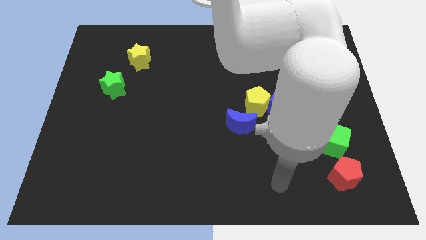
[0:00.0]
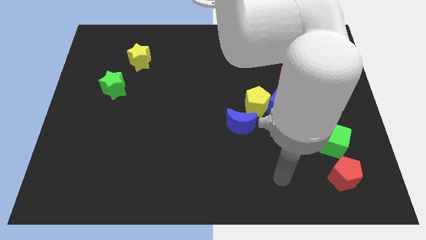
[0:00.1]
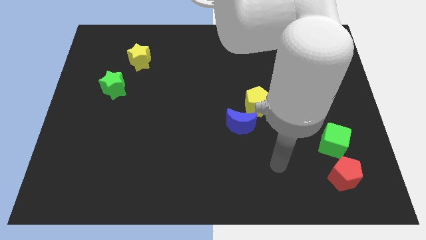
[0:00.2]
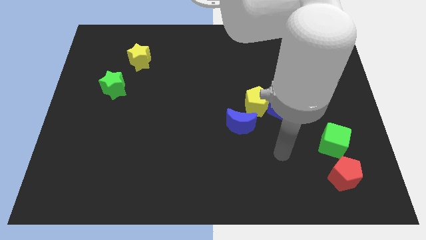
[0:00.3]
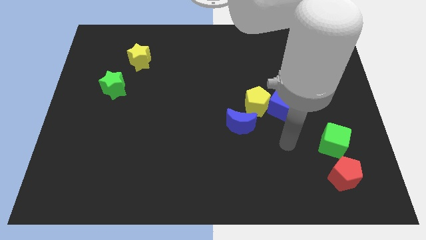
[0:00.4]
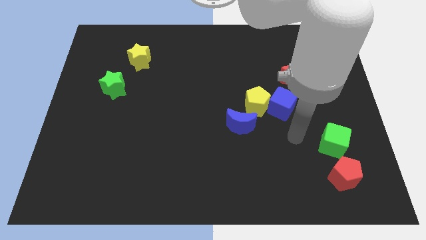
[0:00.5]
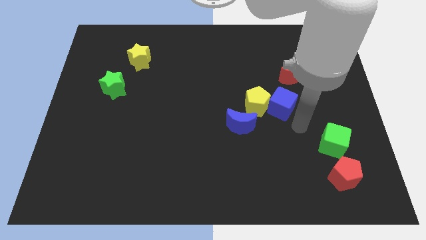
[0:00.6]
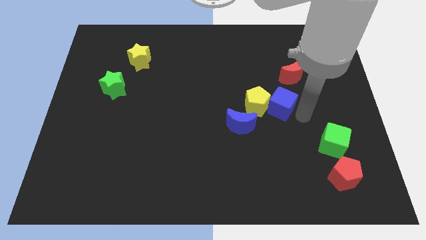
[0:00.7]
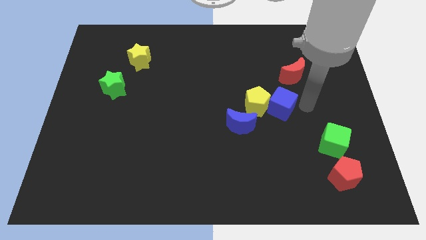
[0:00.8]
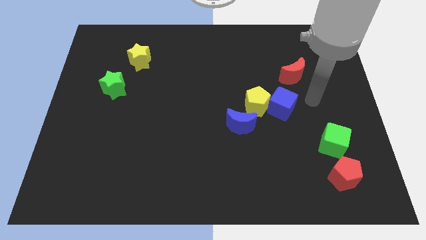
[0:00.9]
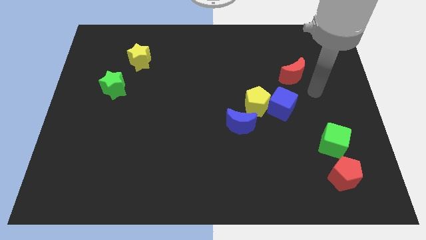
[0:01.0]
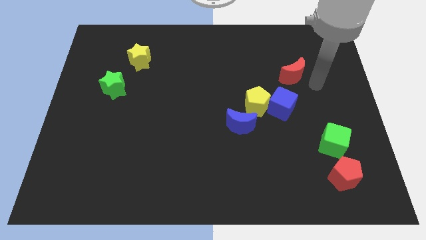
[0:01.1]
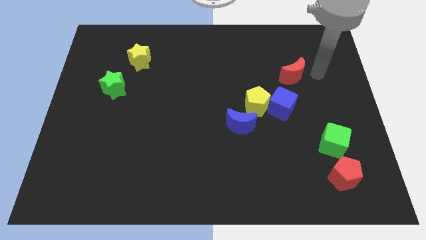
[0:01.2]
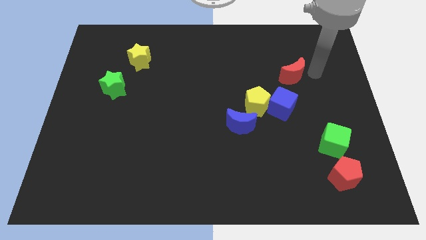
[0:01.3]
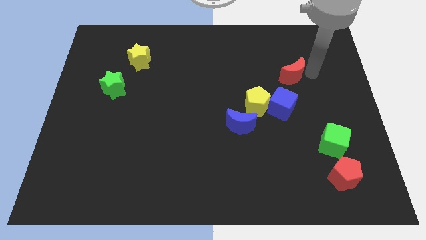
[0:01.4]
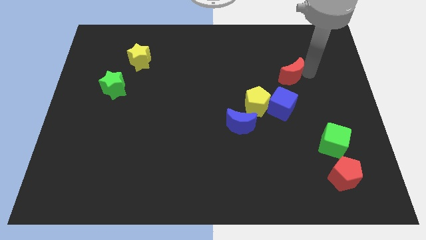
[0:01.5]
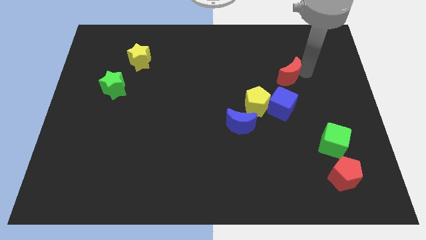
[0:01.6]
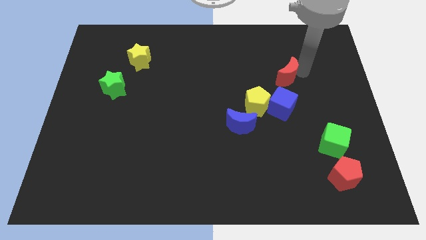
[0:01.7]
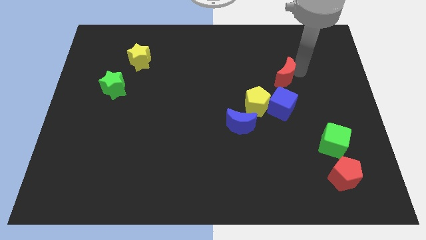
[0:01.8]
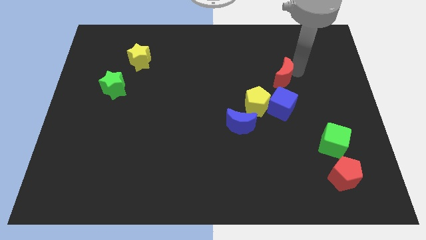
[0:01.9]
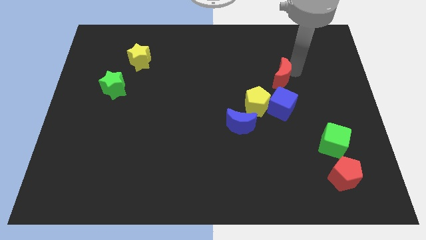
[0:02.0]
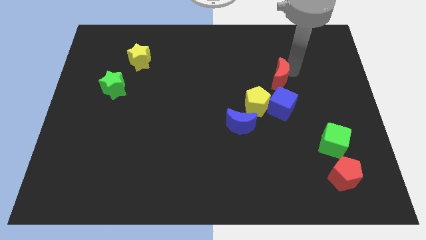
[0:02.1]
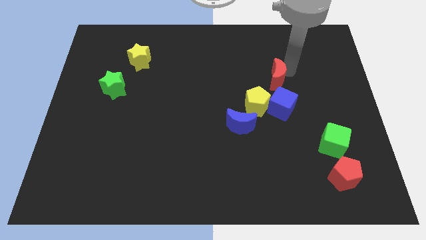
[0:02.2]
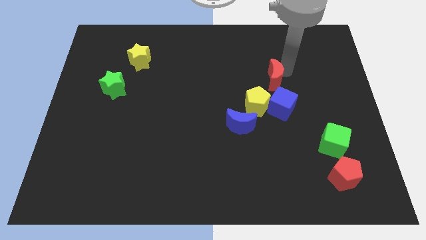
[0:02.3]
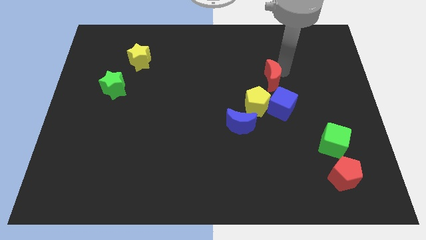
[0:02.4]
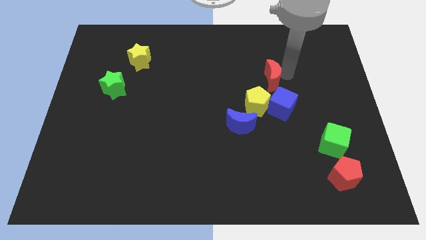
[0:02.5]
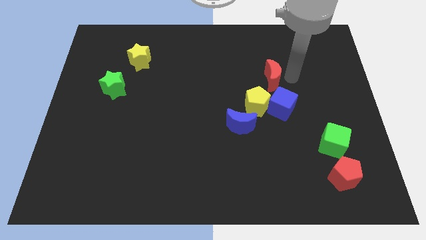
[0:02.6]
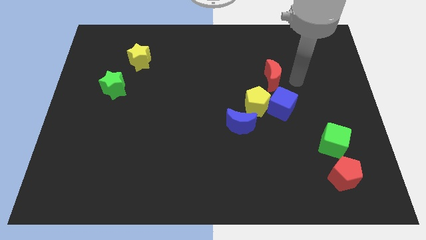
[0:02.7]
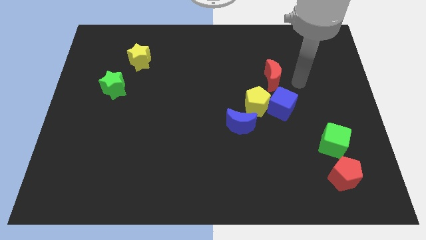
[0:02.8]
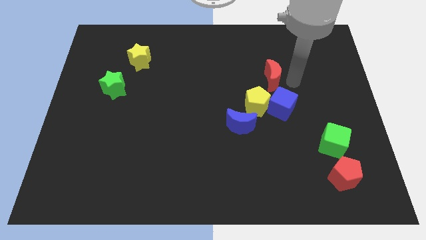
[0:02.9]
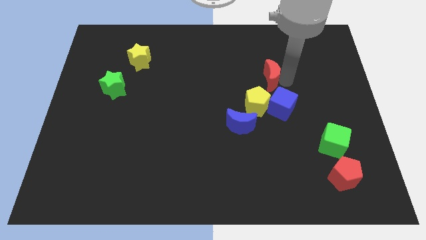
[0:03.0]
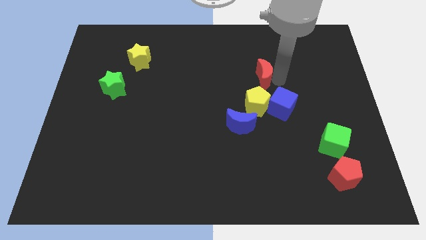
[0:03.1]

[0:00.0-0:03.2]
slightly slide the red moon to the left

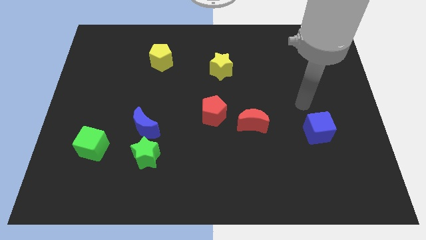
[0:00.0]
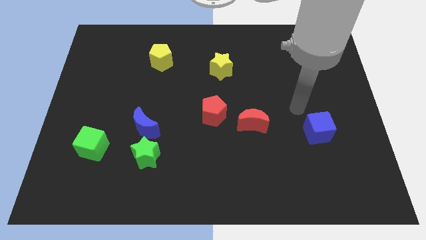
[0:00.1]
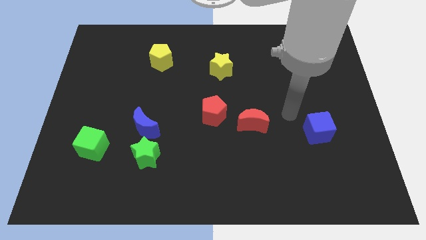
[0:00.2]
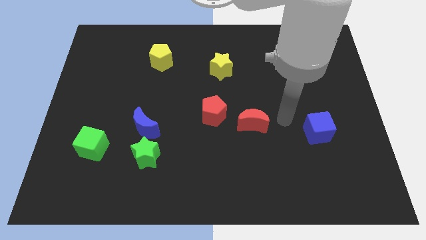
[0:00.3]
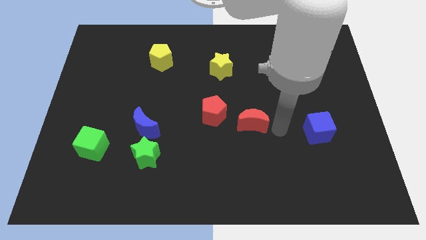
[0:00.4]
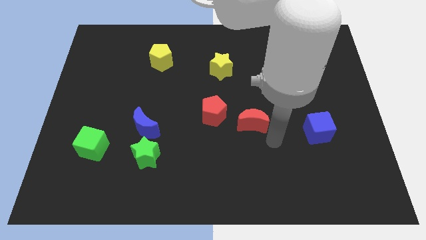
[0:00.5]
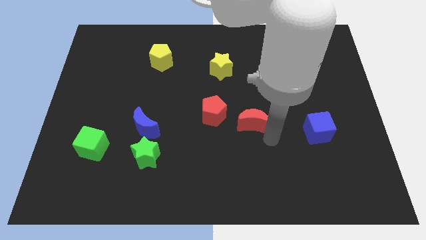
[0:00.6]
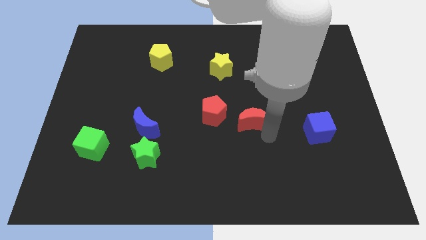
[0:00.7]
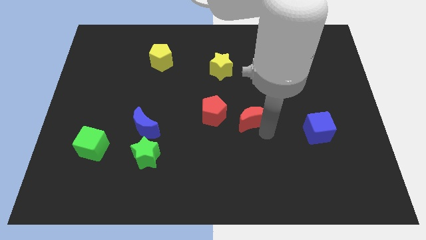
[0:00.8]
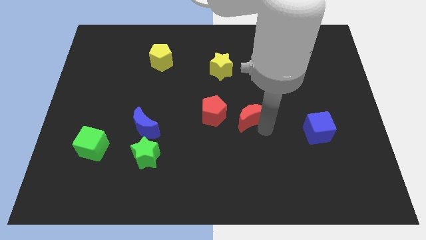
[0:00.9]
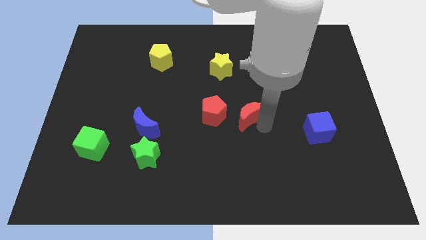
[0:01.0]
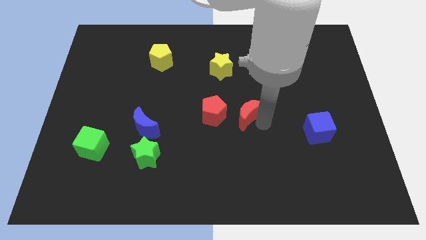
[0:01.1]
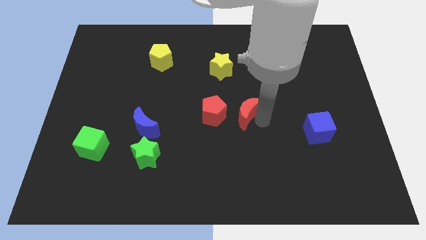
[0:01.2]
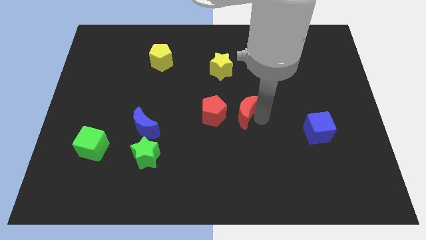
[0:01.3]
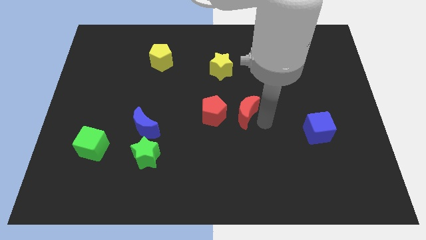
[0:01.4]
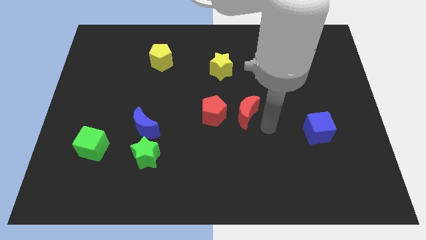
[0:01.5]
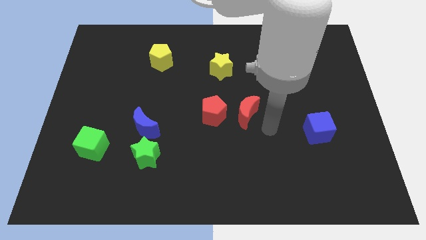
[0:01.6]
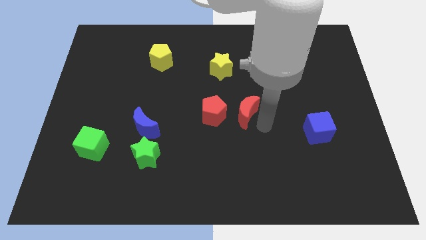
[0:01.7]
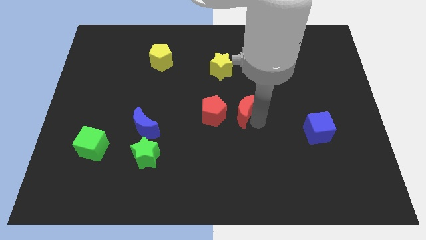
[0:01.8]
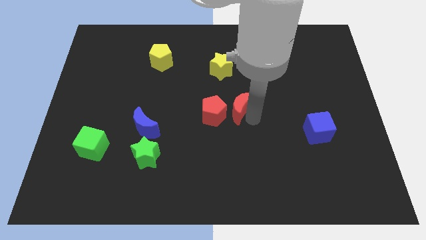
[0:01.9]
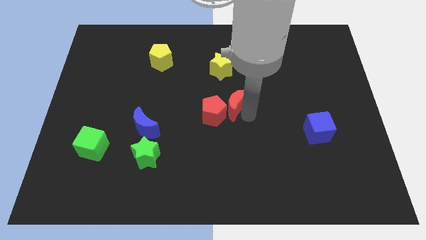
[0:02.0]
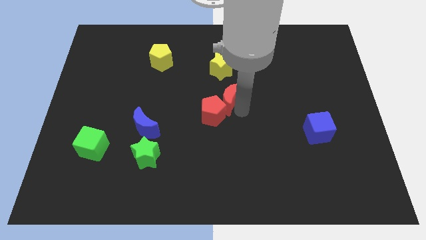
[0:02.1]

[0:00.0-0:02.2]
slide the red moon a bit up and left

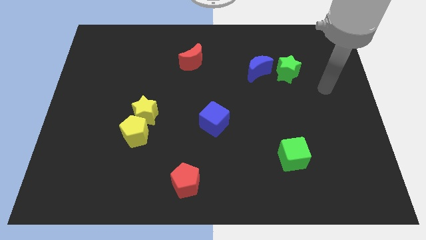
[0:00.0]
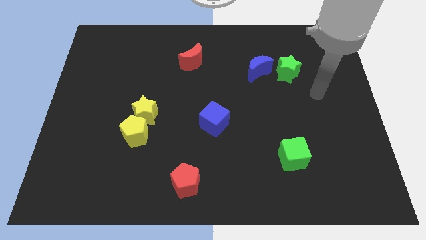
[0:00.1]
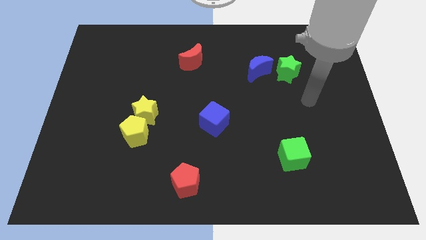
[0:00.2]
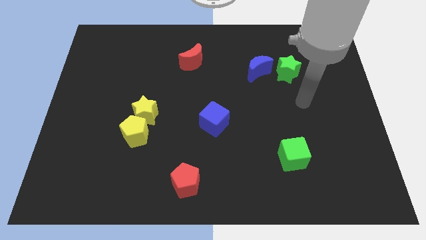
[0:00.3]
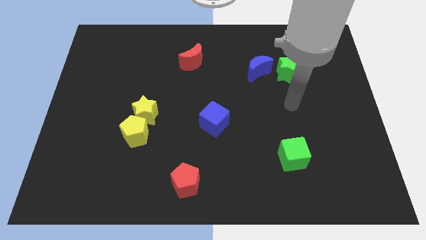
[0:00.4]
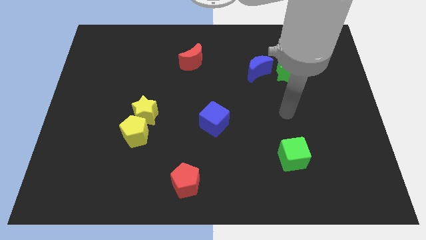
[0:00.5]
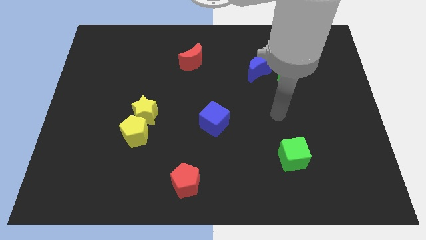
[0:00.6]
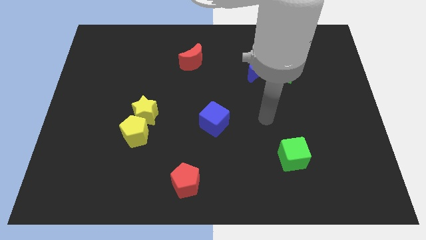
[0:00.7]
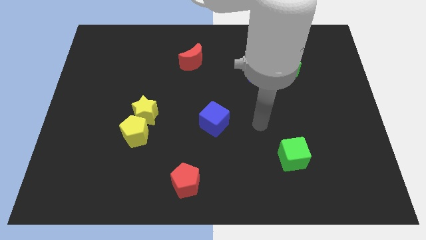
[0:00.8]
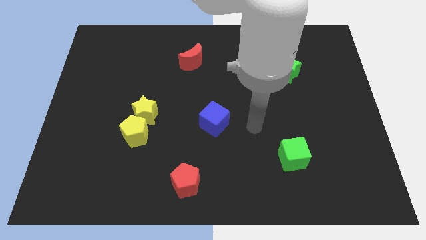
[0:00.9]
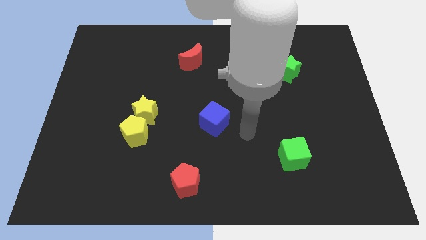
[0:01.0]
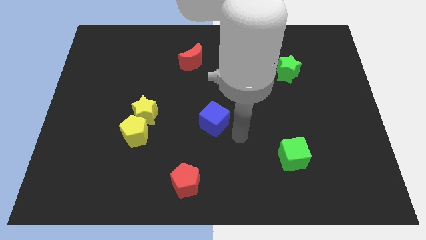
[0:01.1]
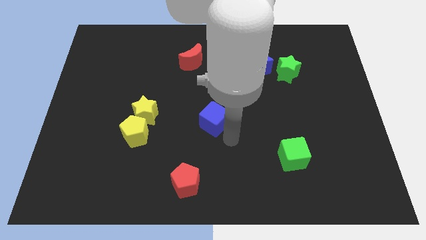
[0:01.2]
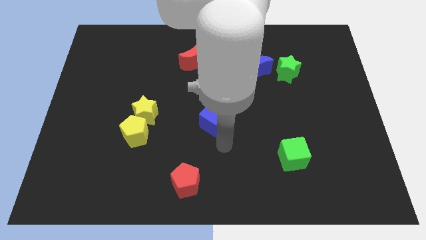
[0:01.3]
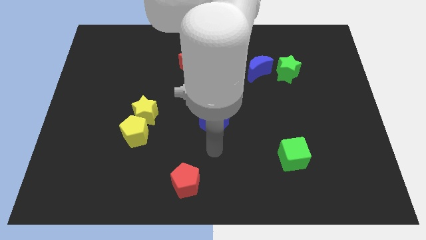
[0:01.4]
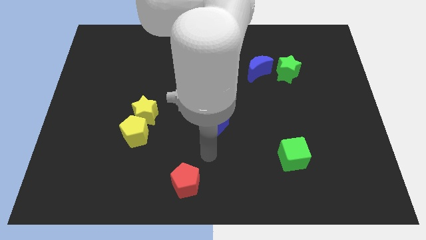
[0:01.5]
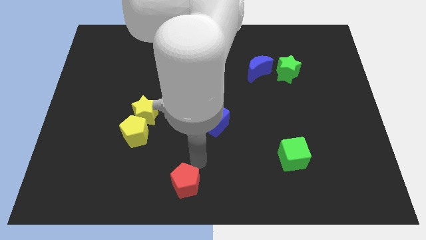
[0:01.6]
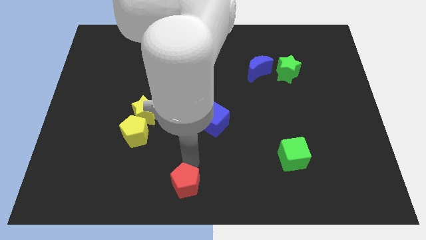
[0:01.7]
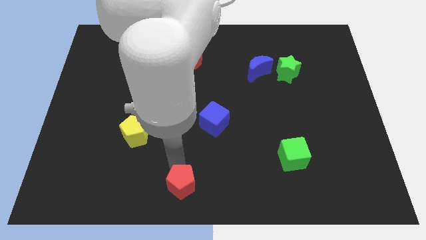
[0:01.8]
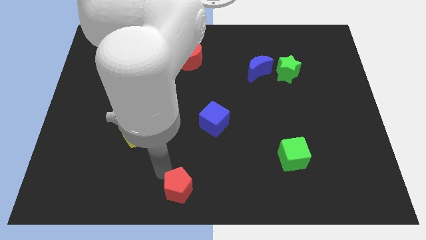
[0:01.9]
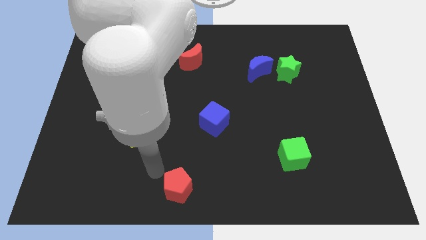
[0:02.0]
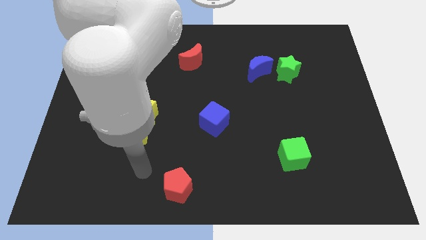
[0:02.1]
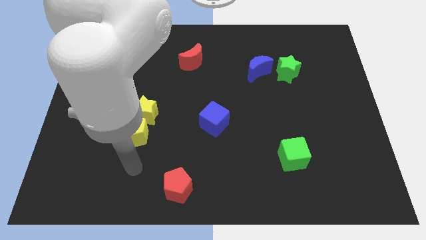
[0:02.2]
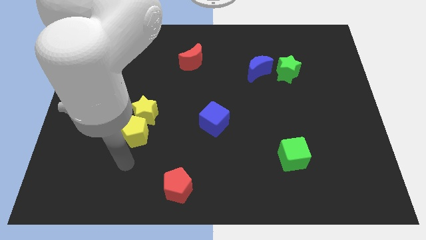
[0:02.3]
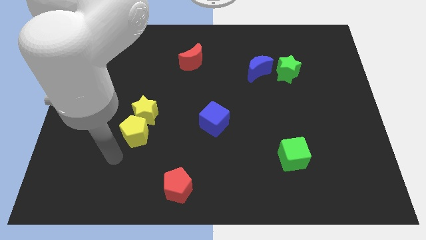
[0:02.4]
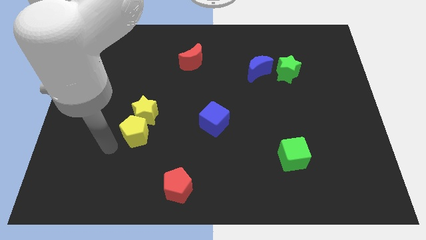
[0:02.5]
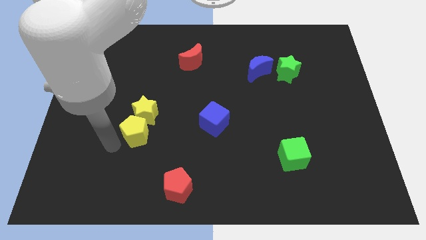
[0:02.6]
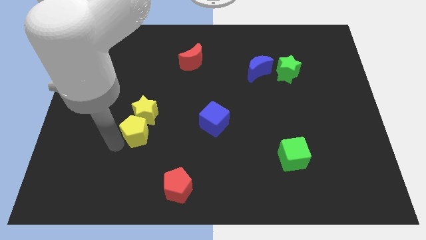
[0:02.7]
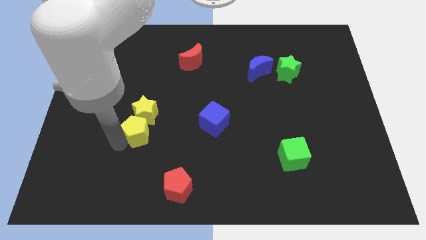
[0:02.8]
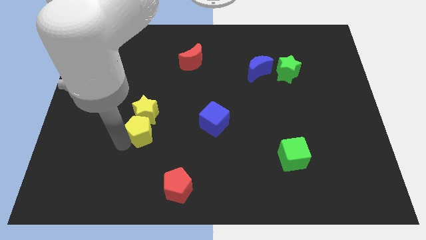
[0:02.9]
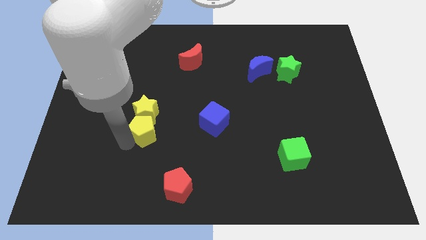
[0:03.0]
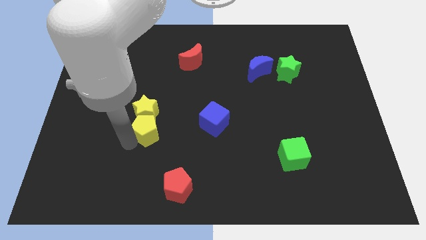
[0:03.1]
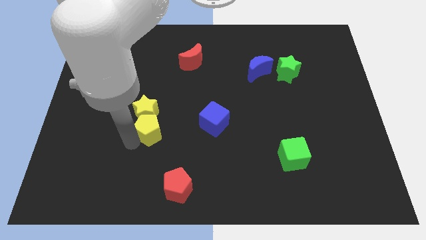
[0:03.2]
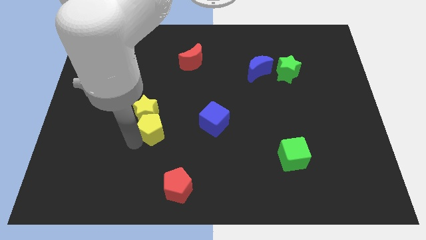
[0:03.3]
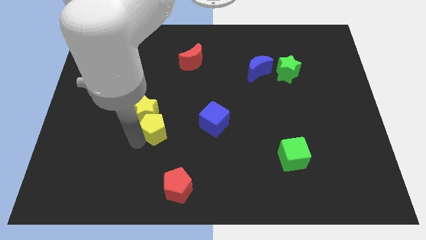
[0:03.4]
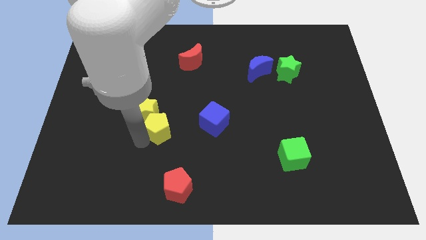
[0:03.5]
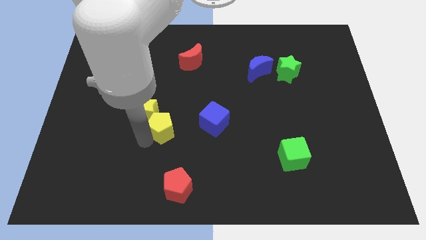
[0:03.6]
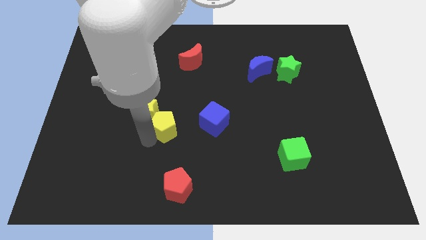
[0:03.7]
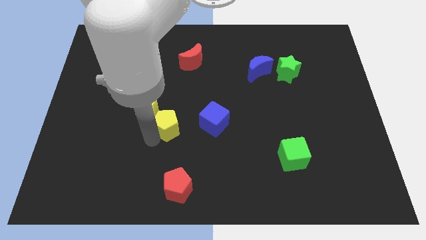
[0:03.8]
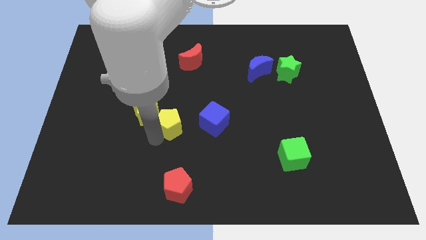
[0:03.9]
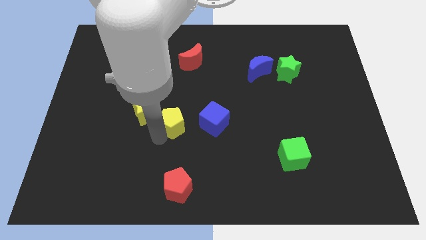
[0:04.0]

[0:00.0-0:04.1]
slightly push the yellow pentagon diagonally up and right
